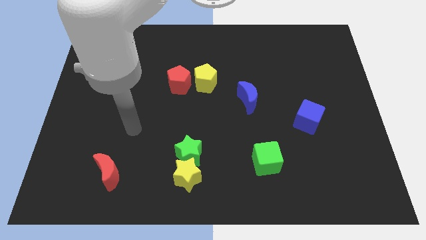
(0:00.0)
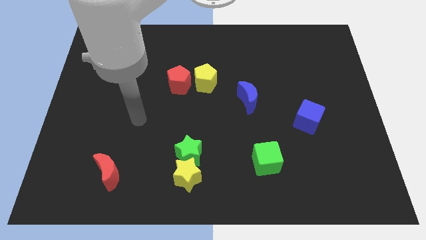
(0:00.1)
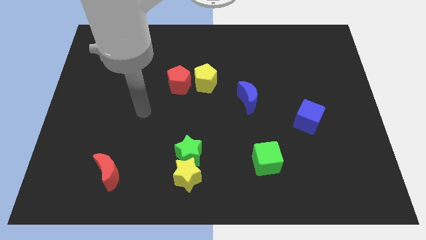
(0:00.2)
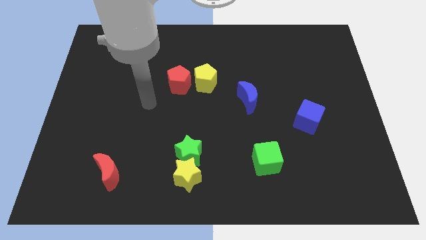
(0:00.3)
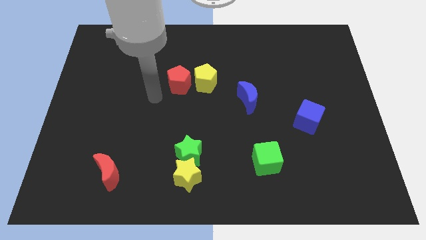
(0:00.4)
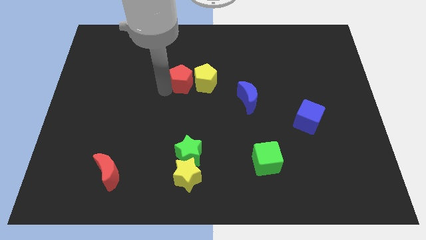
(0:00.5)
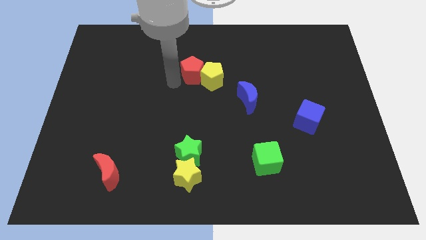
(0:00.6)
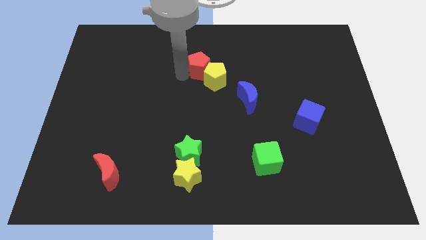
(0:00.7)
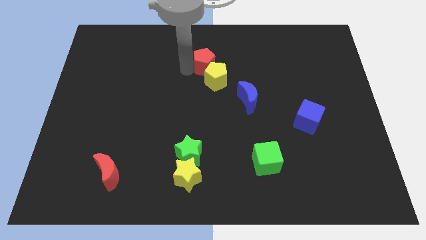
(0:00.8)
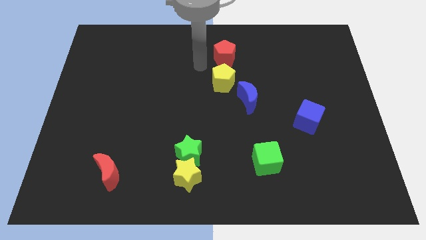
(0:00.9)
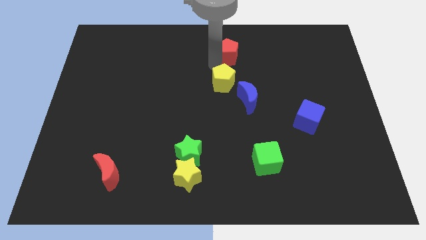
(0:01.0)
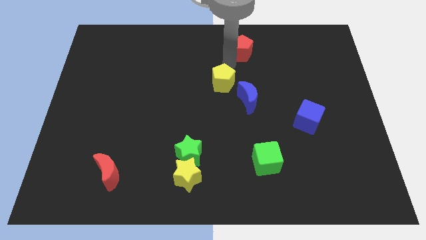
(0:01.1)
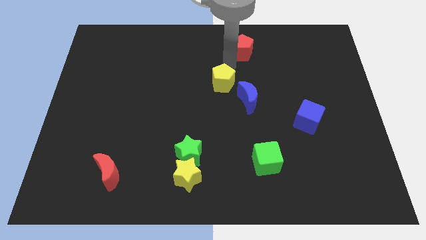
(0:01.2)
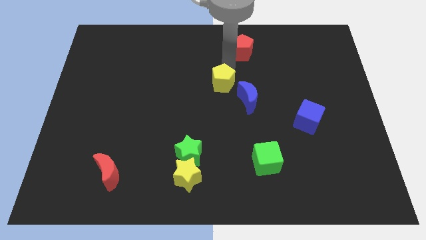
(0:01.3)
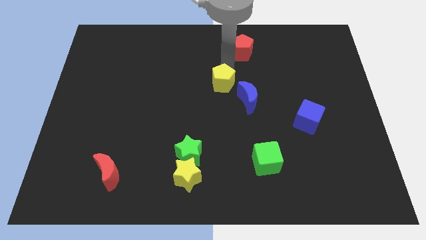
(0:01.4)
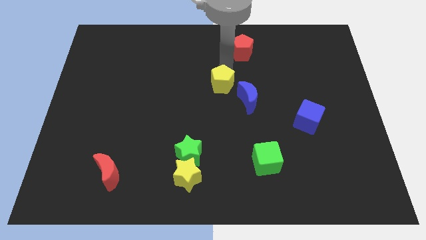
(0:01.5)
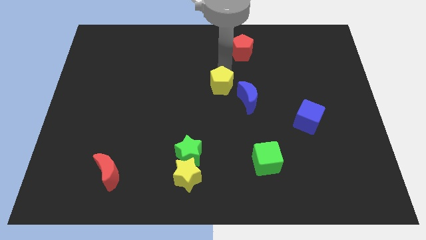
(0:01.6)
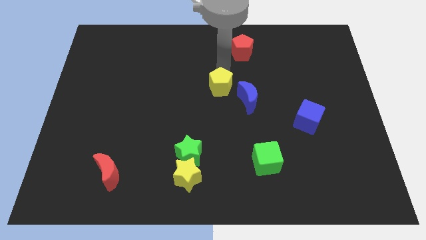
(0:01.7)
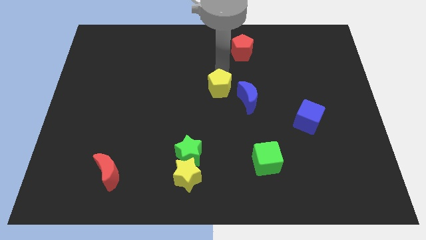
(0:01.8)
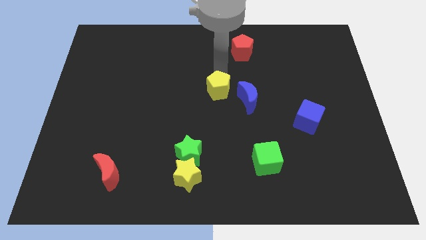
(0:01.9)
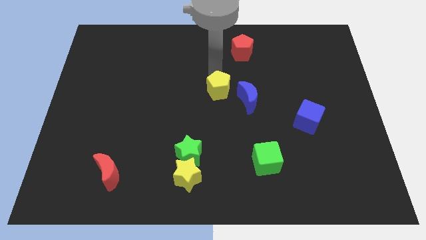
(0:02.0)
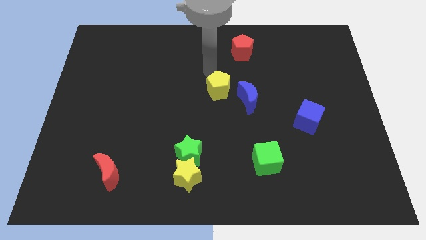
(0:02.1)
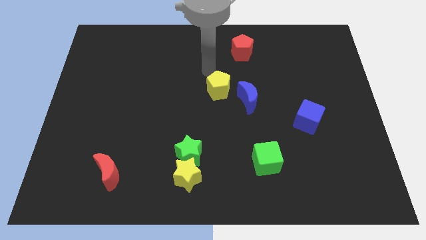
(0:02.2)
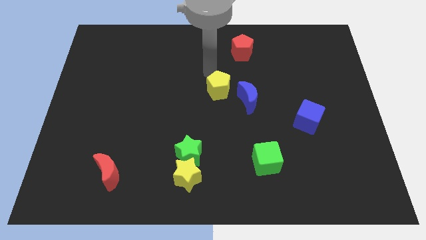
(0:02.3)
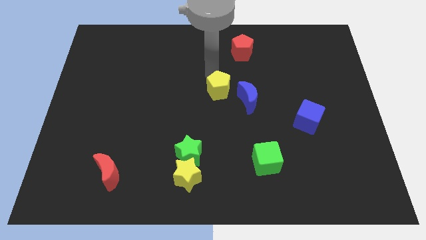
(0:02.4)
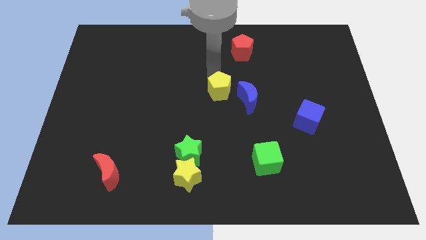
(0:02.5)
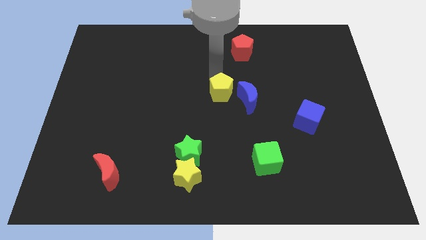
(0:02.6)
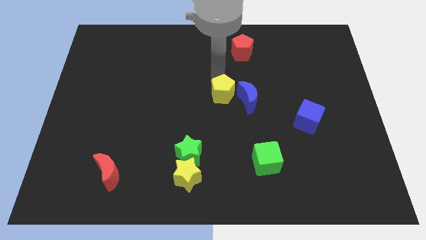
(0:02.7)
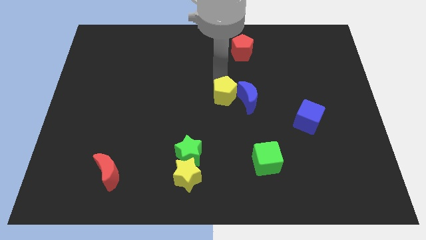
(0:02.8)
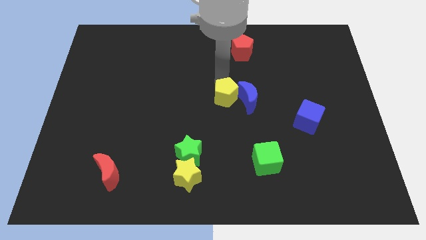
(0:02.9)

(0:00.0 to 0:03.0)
slightly push the yellow pentagon diagonally downwards and to the right

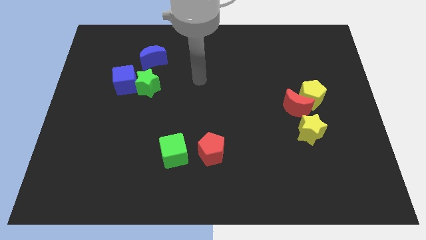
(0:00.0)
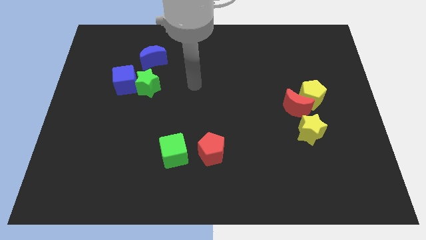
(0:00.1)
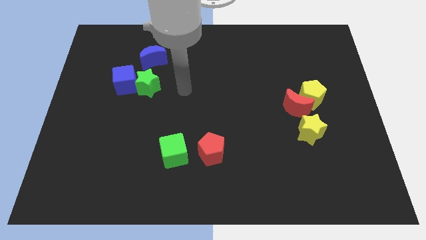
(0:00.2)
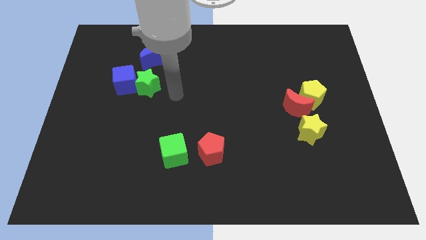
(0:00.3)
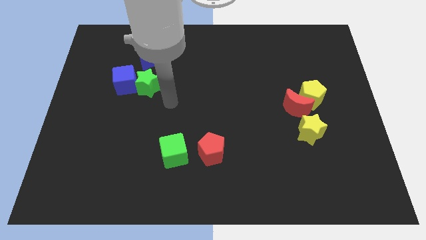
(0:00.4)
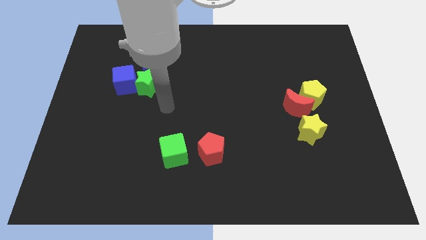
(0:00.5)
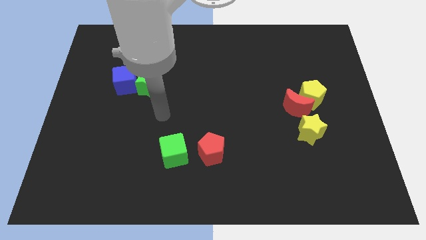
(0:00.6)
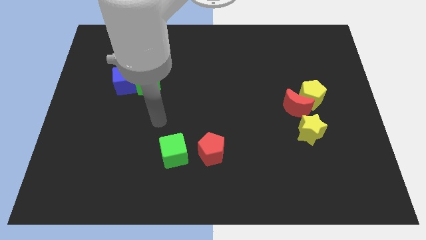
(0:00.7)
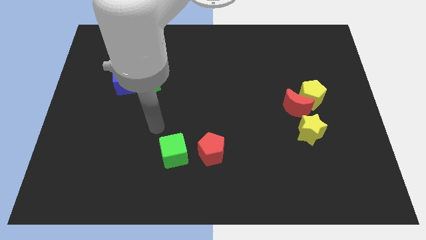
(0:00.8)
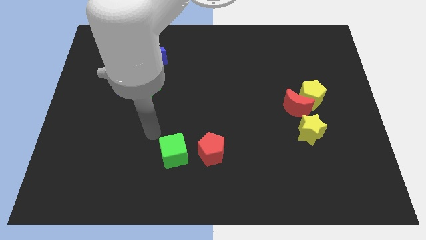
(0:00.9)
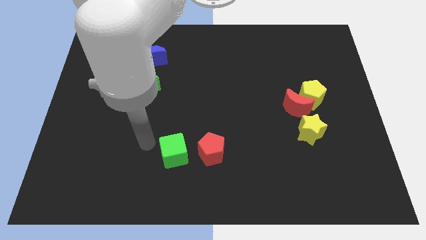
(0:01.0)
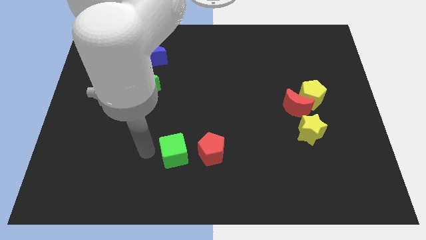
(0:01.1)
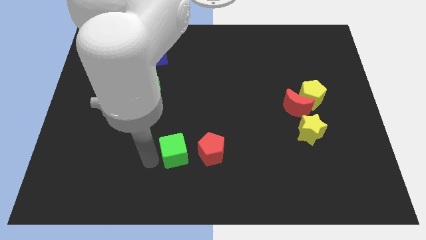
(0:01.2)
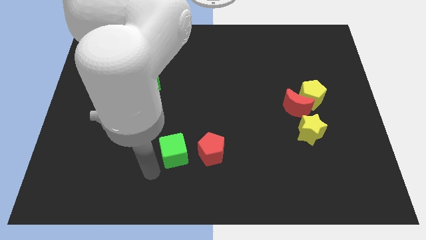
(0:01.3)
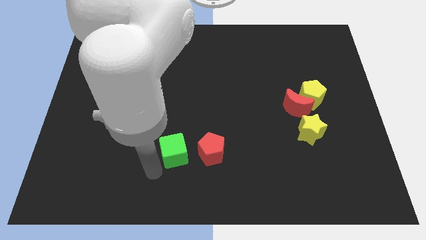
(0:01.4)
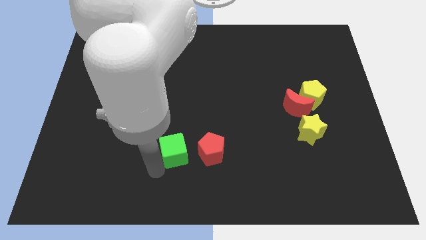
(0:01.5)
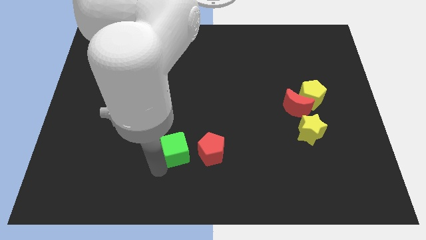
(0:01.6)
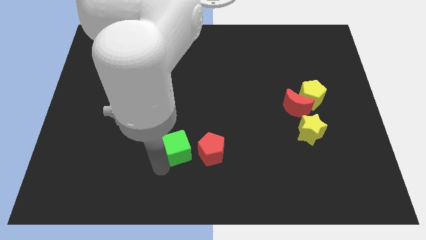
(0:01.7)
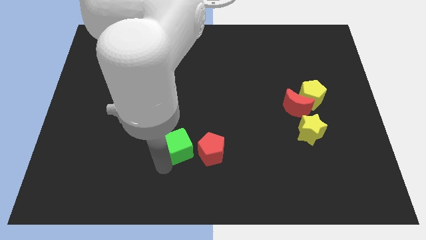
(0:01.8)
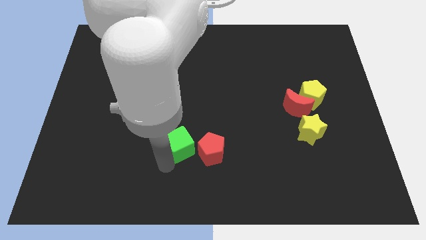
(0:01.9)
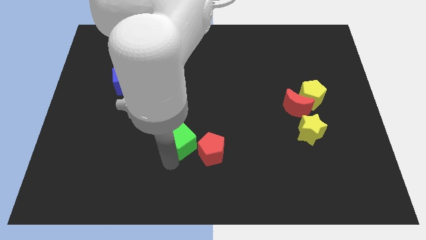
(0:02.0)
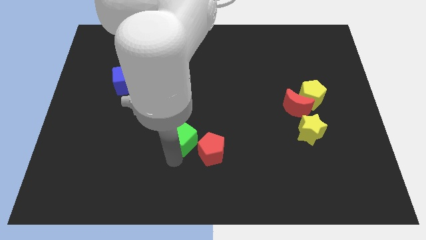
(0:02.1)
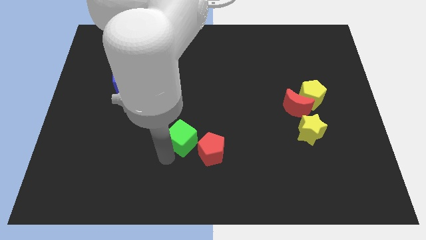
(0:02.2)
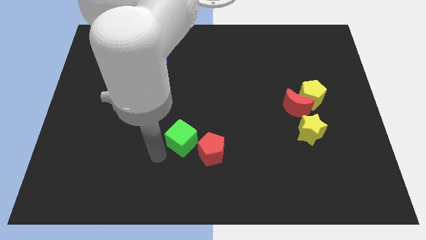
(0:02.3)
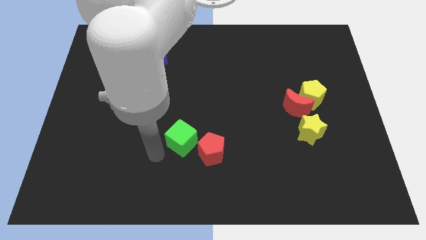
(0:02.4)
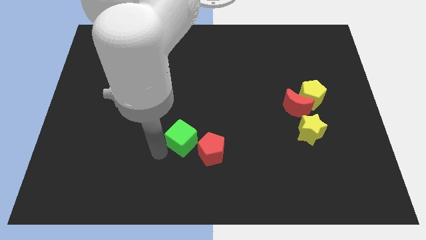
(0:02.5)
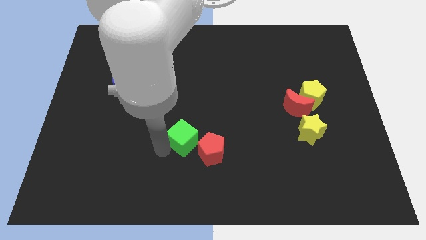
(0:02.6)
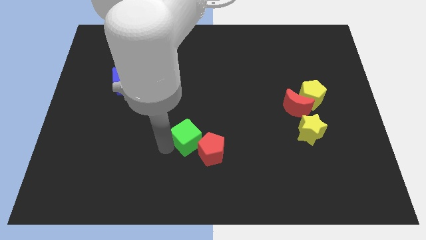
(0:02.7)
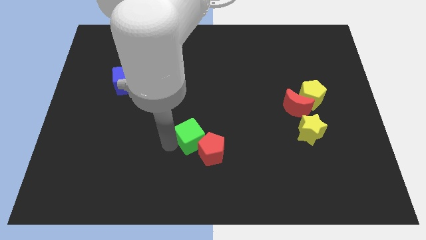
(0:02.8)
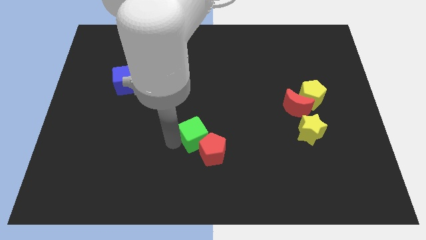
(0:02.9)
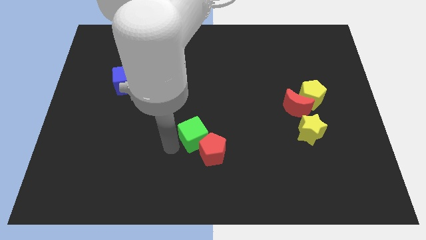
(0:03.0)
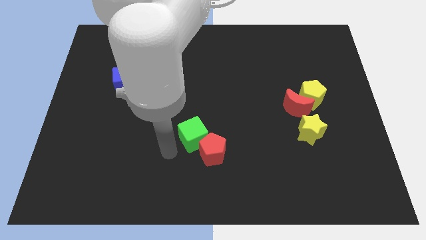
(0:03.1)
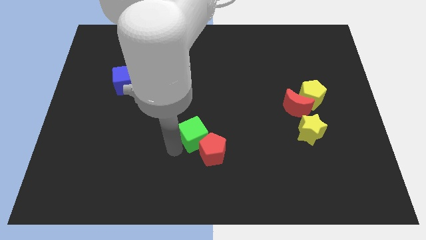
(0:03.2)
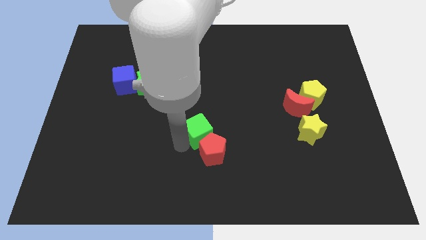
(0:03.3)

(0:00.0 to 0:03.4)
slightly push the green cube diagonally upwards and to the right

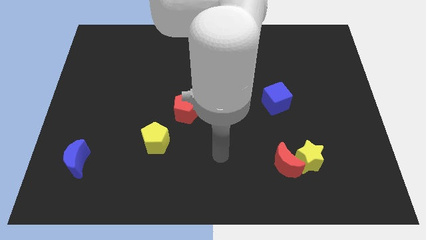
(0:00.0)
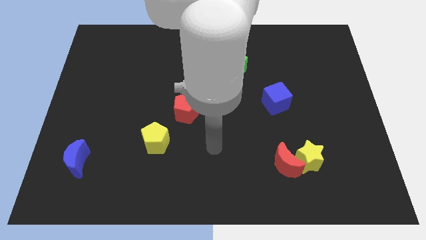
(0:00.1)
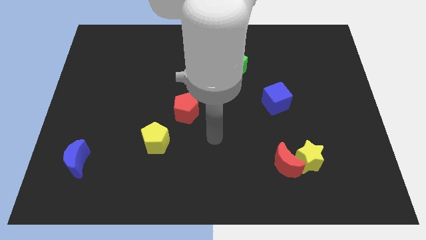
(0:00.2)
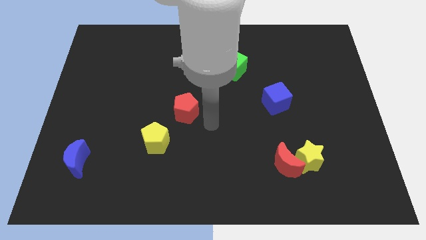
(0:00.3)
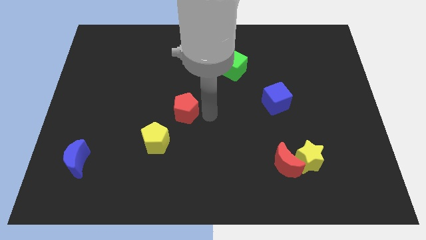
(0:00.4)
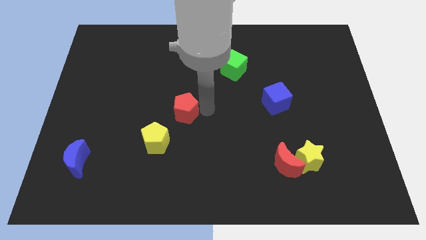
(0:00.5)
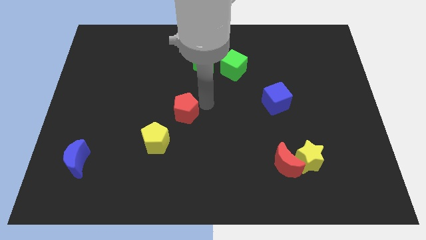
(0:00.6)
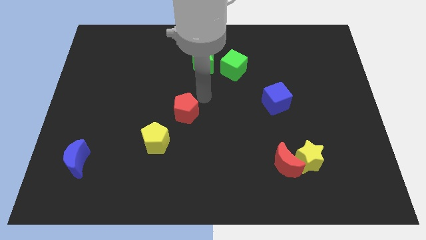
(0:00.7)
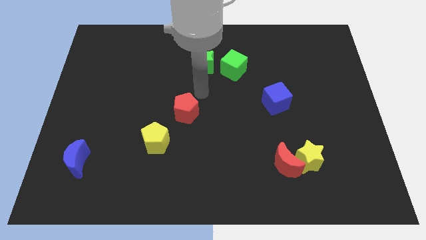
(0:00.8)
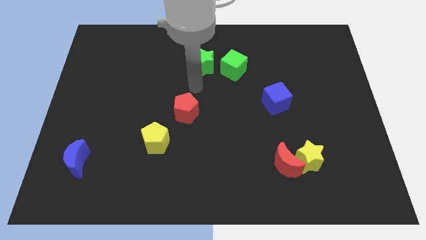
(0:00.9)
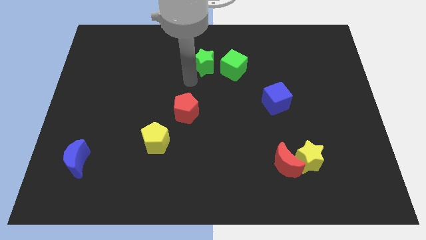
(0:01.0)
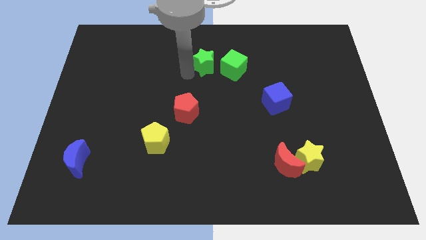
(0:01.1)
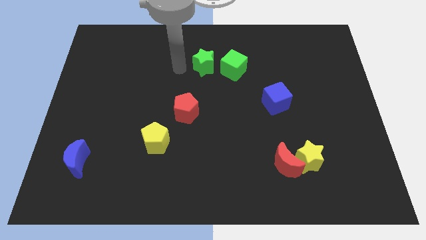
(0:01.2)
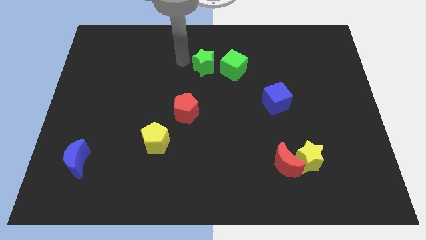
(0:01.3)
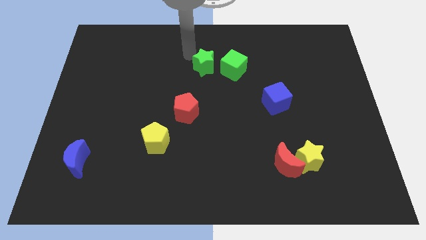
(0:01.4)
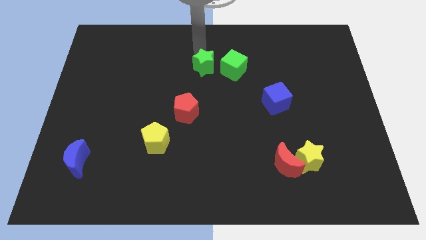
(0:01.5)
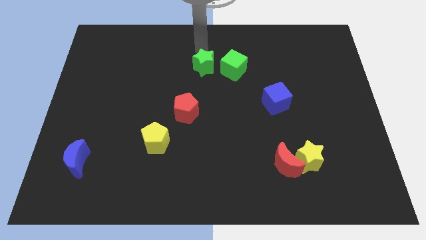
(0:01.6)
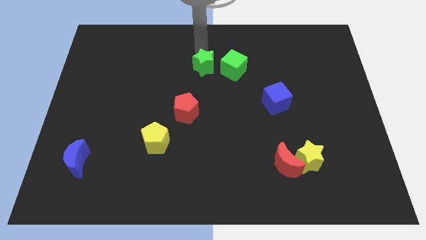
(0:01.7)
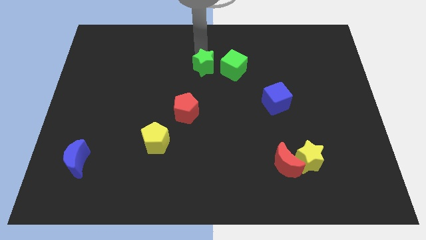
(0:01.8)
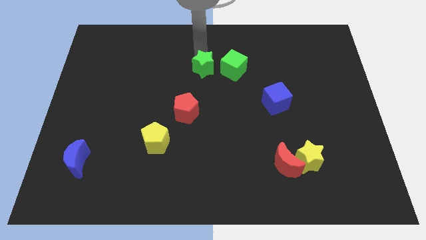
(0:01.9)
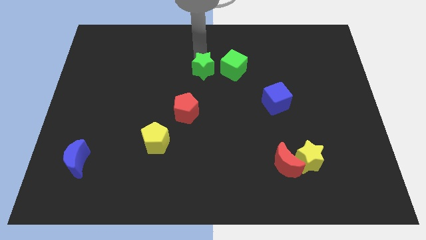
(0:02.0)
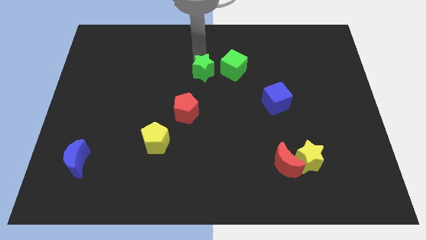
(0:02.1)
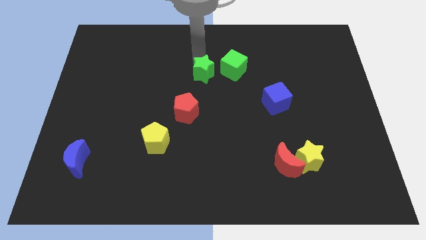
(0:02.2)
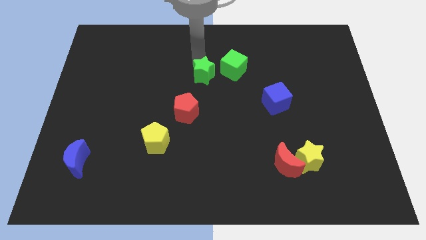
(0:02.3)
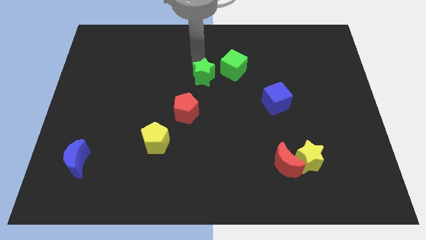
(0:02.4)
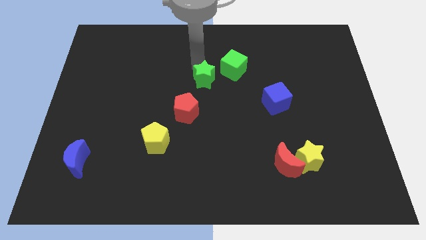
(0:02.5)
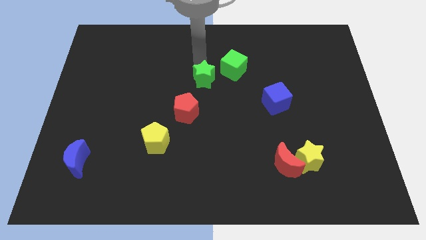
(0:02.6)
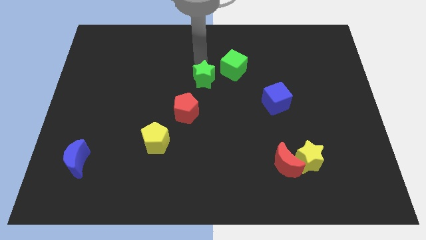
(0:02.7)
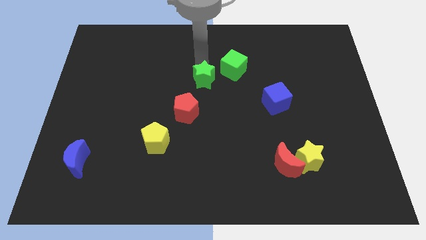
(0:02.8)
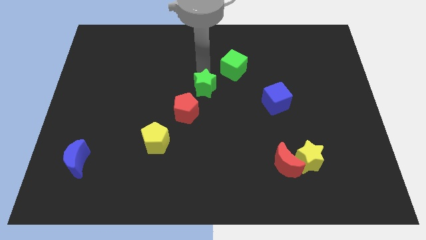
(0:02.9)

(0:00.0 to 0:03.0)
move the green star downwards slightly
